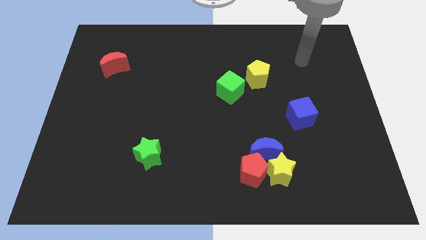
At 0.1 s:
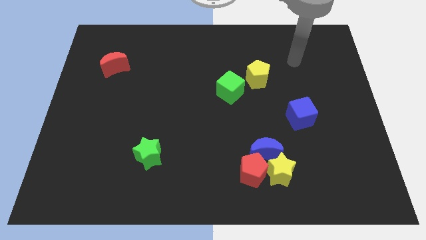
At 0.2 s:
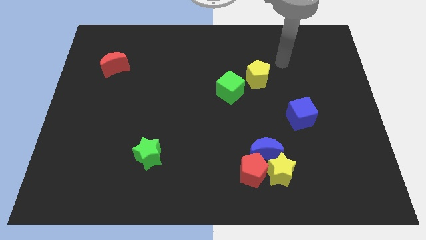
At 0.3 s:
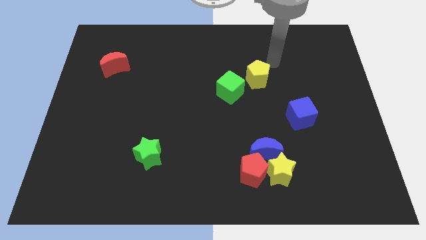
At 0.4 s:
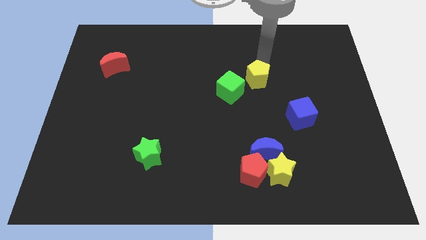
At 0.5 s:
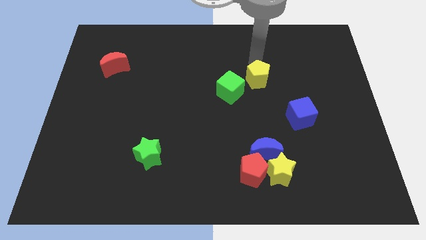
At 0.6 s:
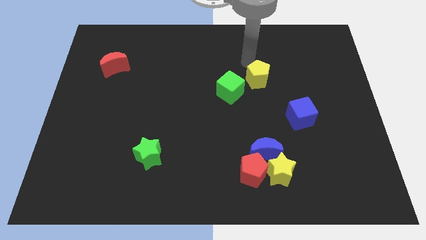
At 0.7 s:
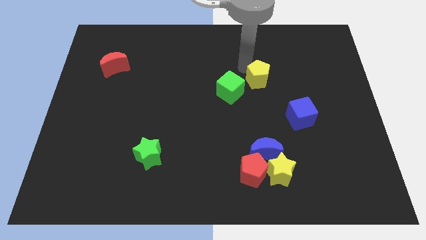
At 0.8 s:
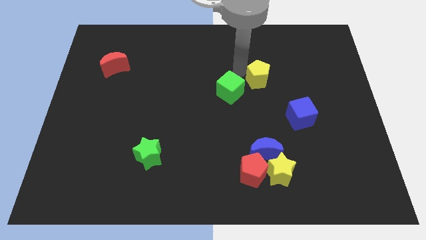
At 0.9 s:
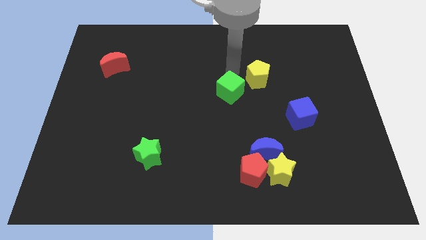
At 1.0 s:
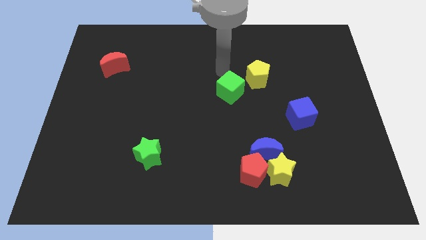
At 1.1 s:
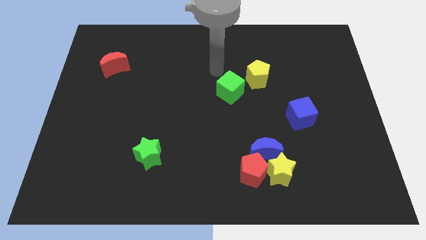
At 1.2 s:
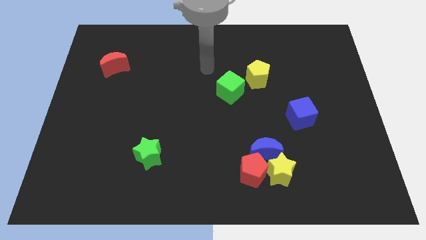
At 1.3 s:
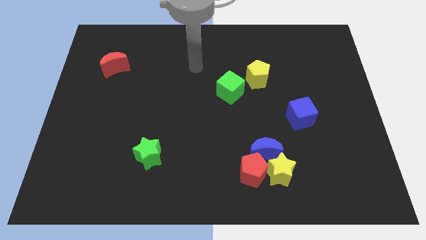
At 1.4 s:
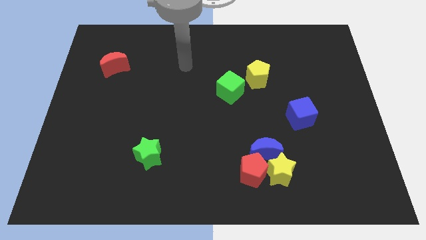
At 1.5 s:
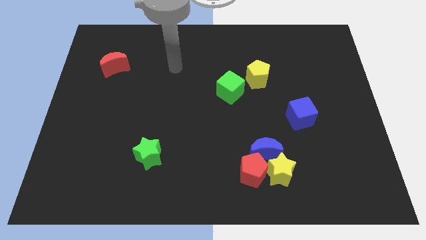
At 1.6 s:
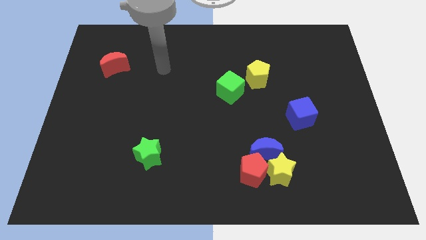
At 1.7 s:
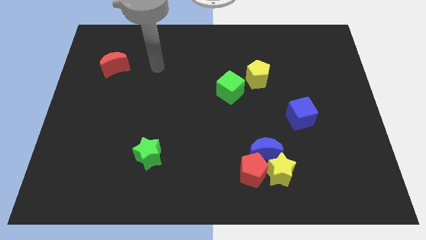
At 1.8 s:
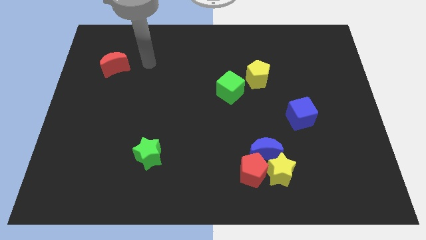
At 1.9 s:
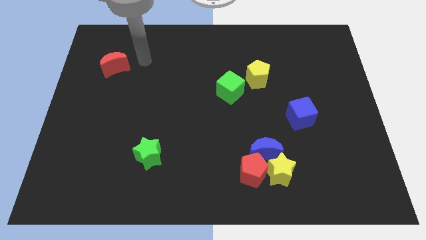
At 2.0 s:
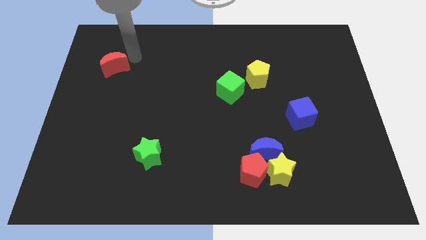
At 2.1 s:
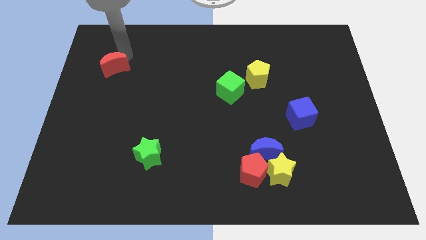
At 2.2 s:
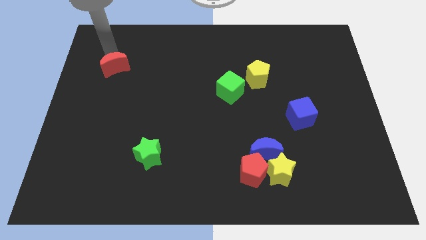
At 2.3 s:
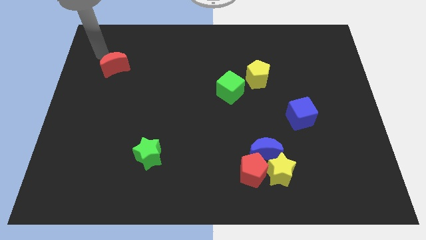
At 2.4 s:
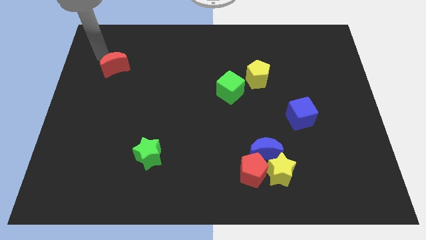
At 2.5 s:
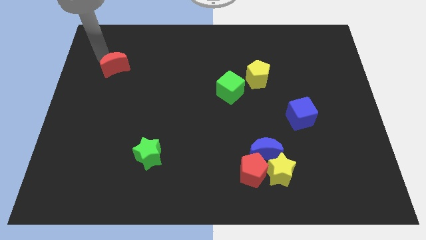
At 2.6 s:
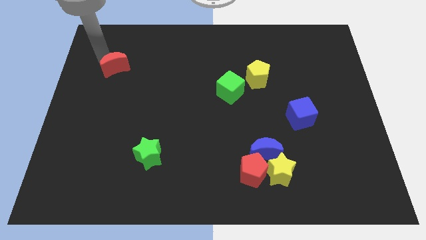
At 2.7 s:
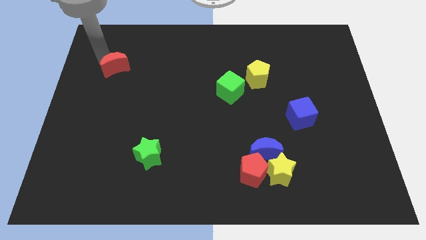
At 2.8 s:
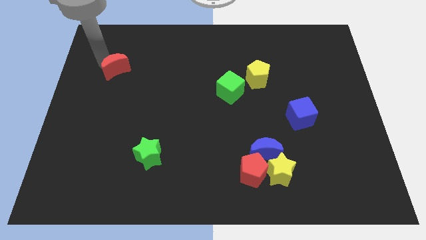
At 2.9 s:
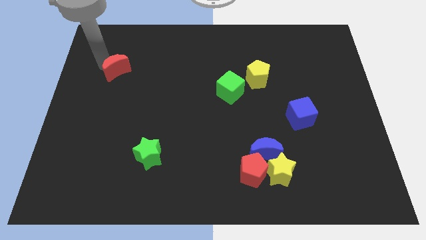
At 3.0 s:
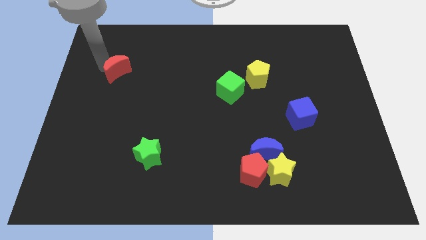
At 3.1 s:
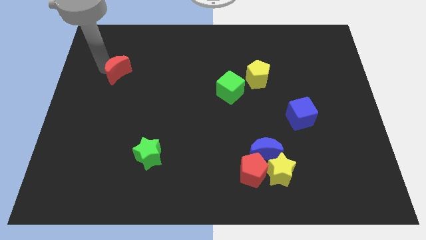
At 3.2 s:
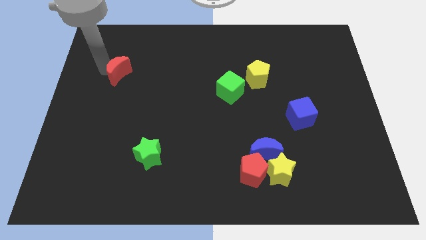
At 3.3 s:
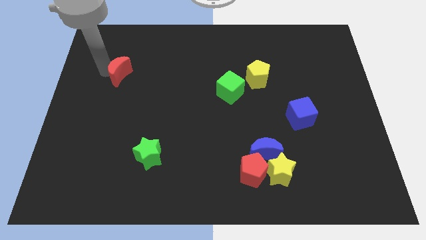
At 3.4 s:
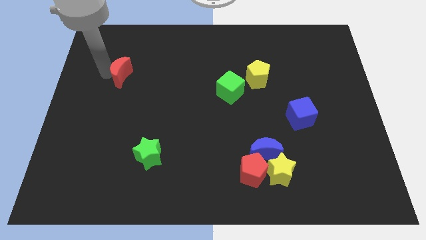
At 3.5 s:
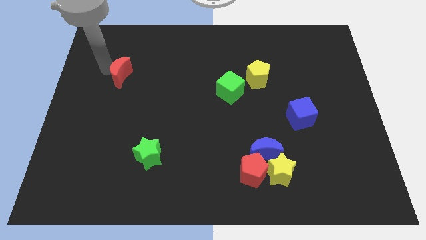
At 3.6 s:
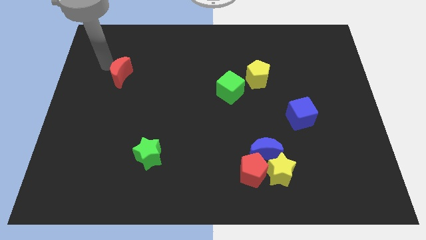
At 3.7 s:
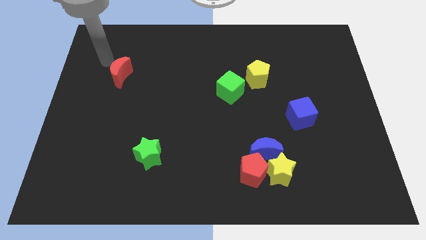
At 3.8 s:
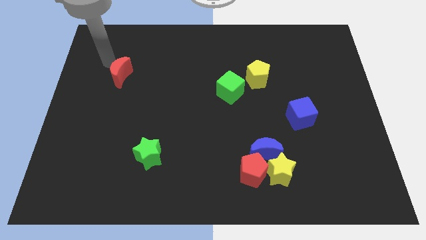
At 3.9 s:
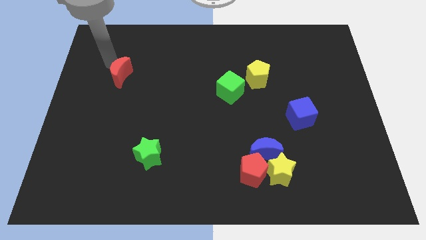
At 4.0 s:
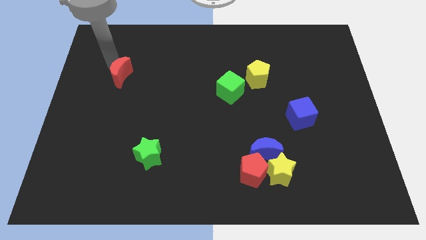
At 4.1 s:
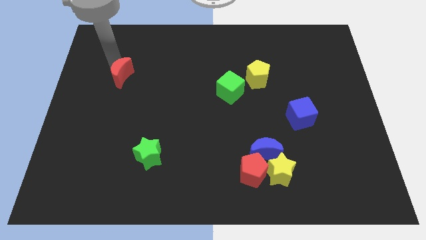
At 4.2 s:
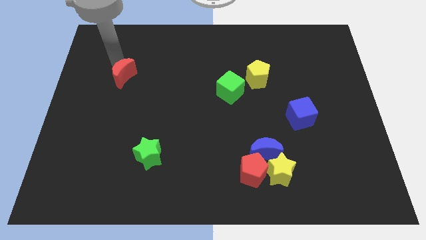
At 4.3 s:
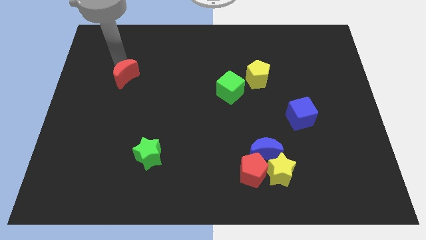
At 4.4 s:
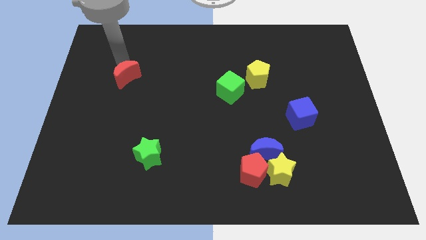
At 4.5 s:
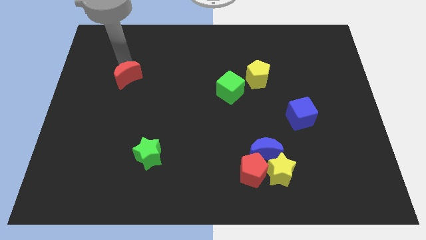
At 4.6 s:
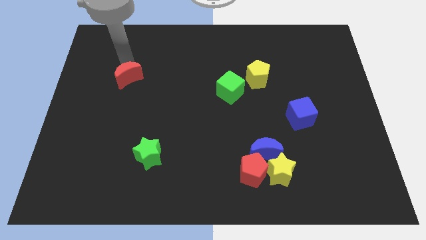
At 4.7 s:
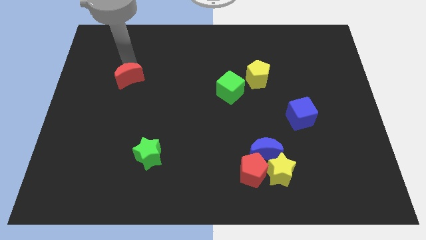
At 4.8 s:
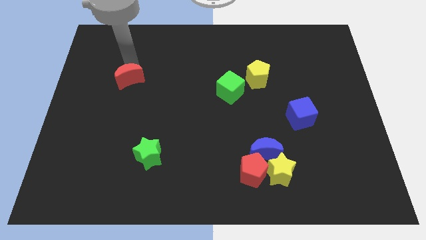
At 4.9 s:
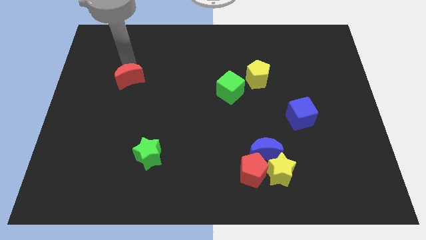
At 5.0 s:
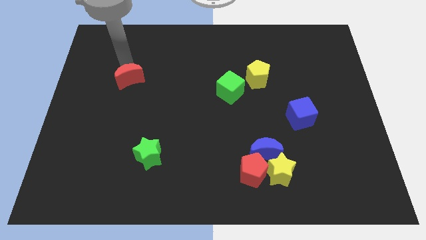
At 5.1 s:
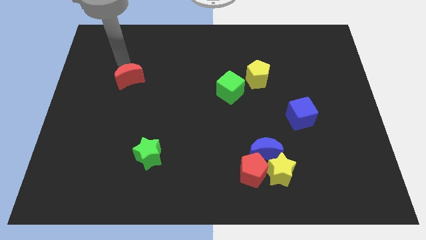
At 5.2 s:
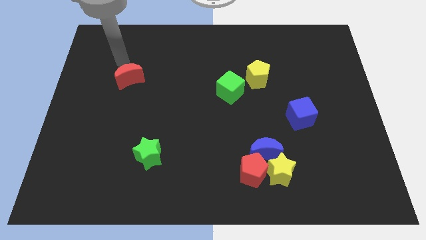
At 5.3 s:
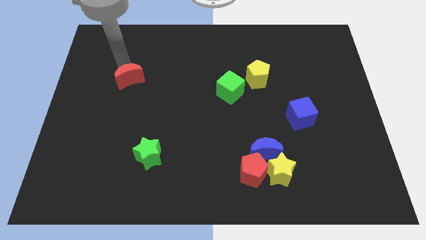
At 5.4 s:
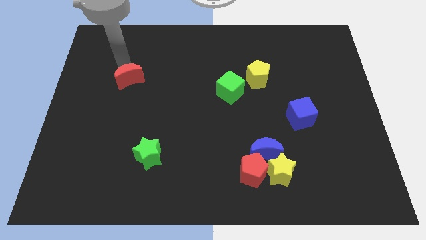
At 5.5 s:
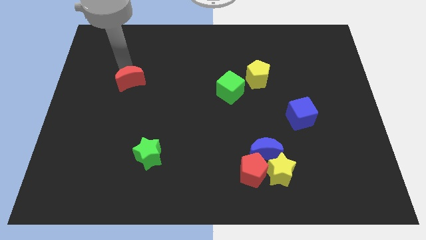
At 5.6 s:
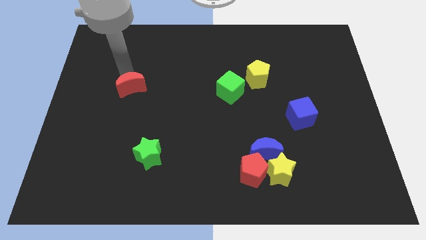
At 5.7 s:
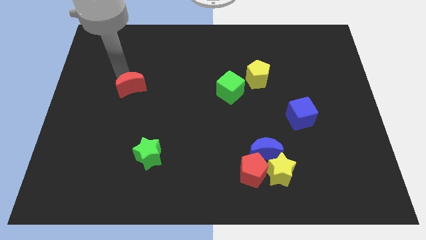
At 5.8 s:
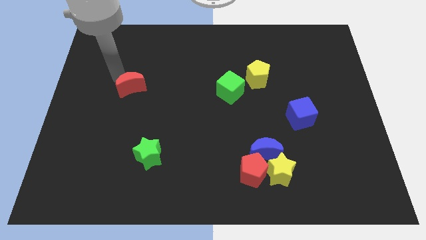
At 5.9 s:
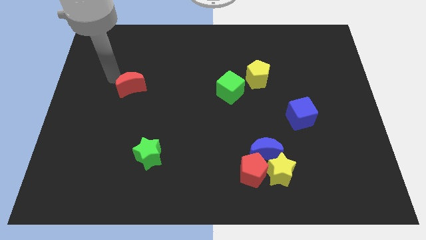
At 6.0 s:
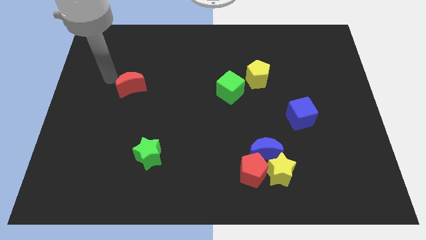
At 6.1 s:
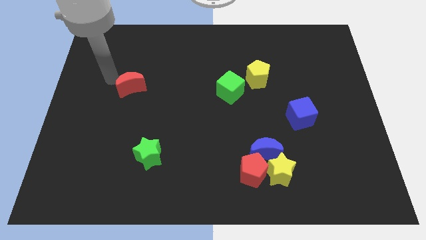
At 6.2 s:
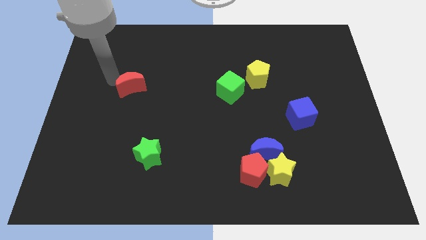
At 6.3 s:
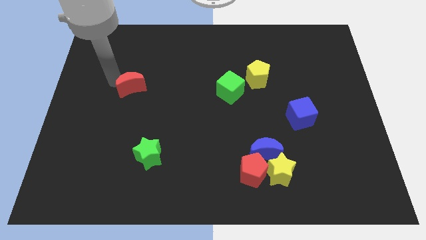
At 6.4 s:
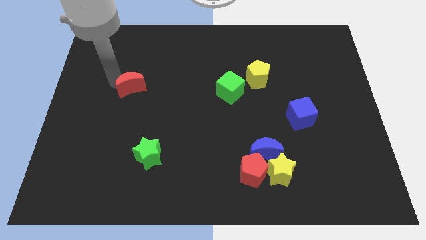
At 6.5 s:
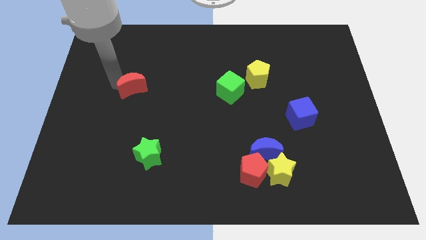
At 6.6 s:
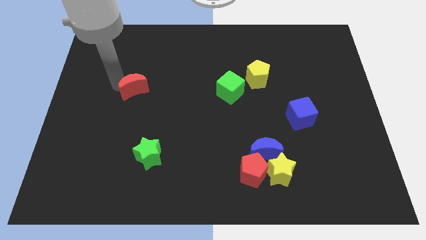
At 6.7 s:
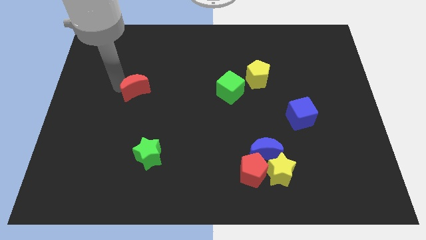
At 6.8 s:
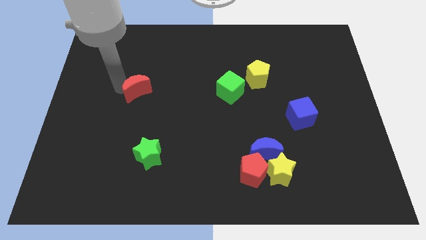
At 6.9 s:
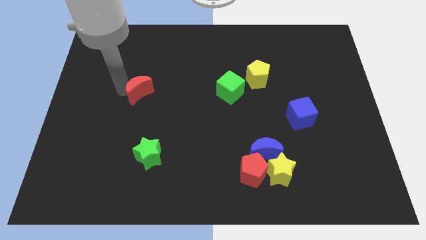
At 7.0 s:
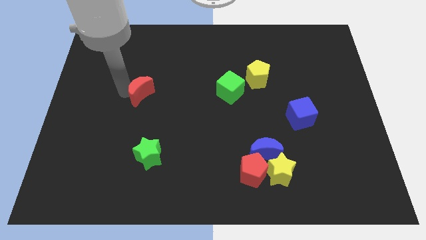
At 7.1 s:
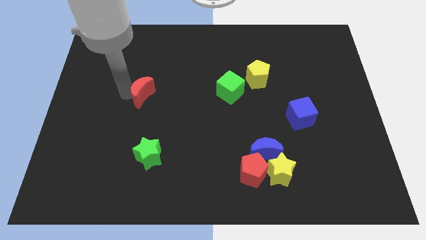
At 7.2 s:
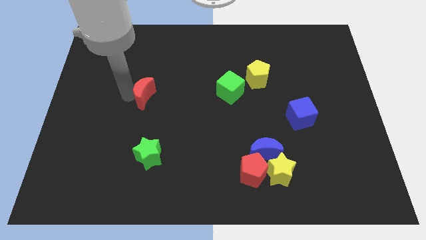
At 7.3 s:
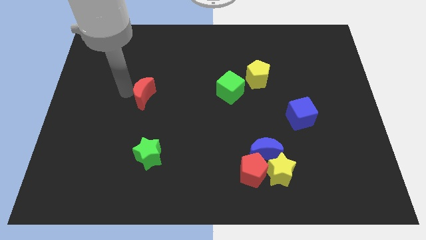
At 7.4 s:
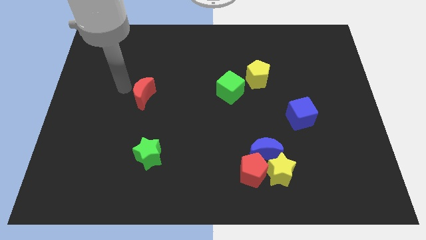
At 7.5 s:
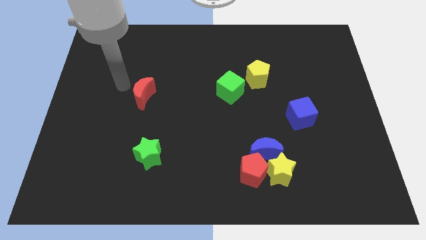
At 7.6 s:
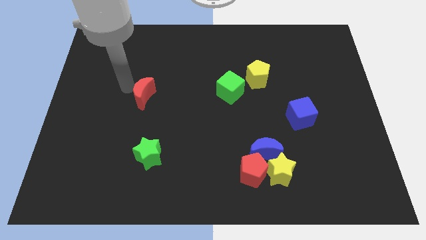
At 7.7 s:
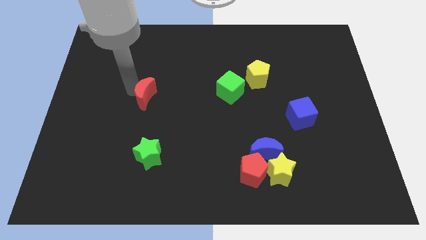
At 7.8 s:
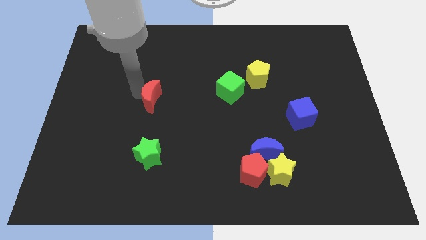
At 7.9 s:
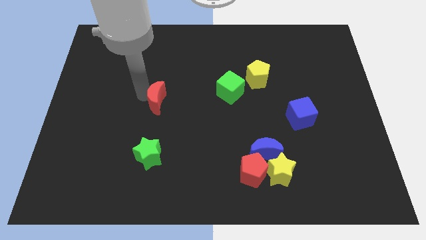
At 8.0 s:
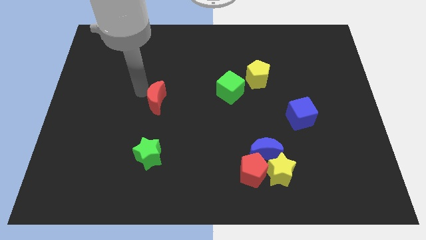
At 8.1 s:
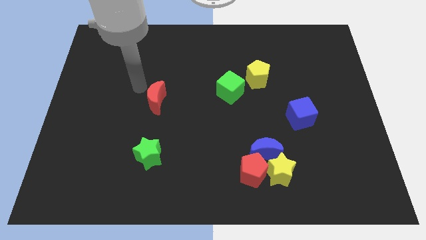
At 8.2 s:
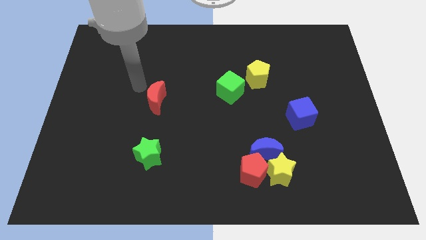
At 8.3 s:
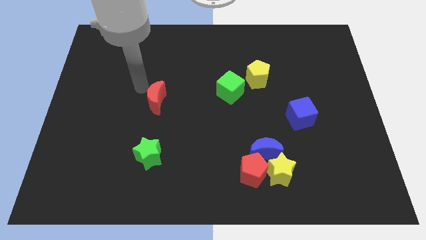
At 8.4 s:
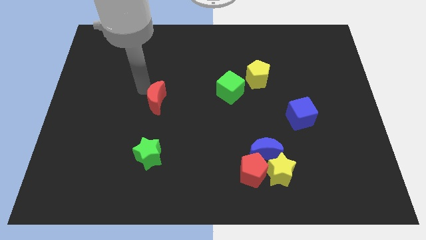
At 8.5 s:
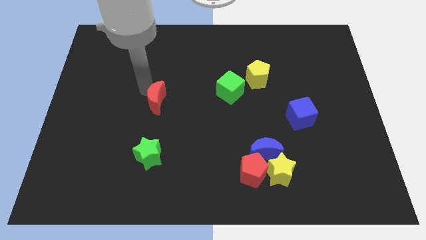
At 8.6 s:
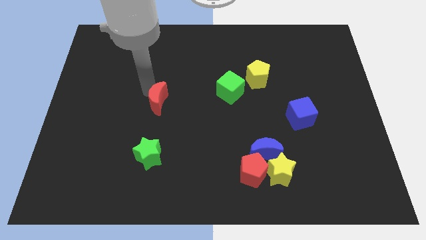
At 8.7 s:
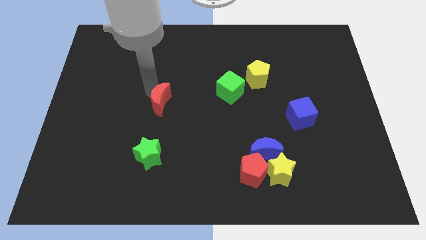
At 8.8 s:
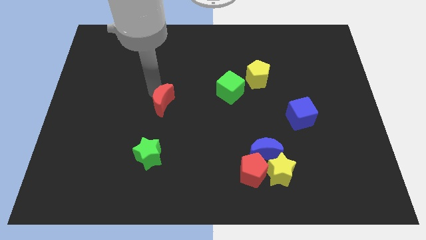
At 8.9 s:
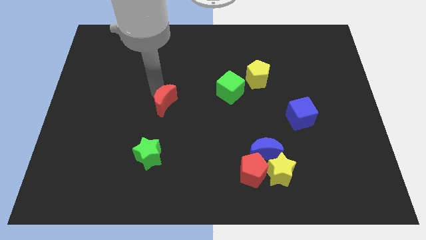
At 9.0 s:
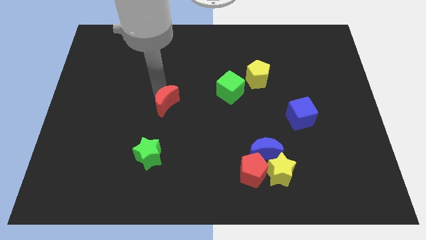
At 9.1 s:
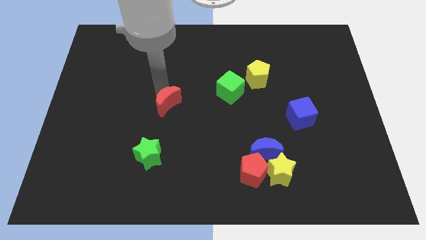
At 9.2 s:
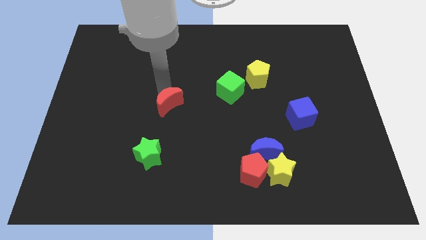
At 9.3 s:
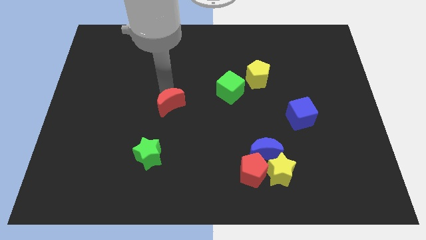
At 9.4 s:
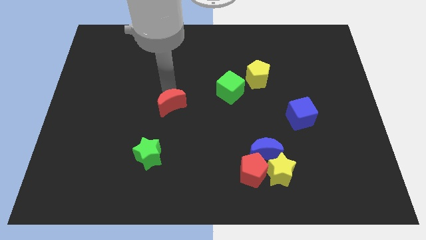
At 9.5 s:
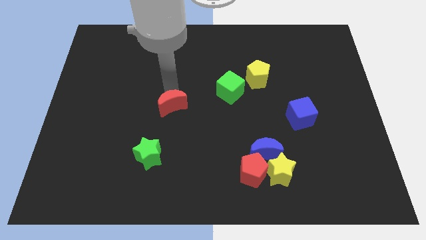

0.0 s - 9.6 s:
move the red moon down and then to the right
